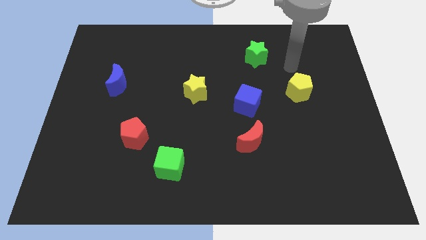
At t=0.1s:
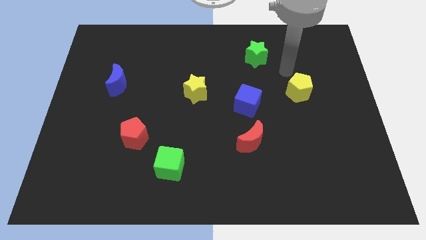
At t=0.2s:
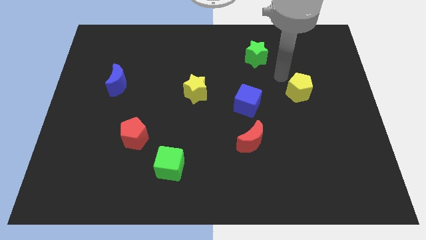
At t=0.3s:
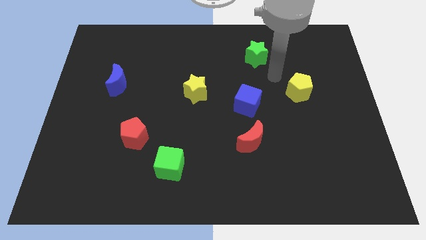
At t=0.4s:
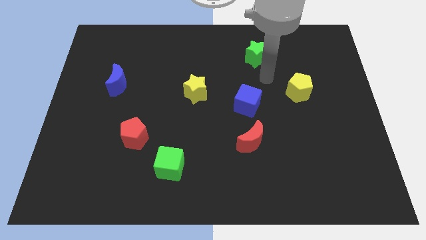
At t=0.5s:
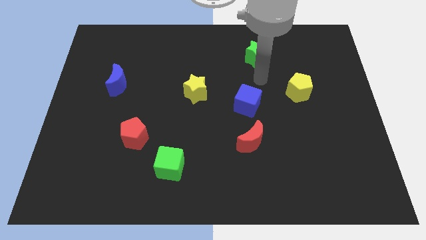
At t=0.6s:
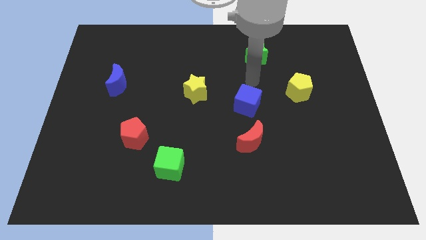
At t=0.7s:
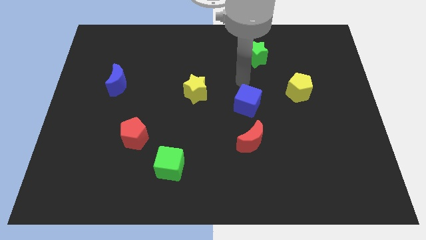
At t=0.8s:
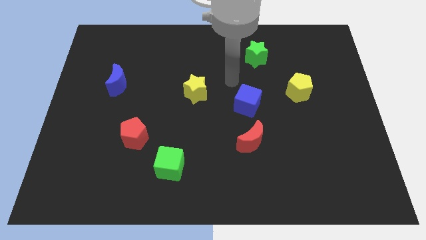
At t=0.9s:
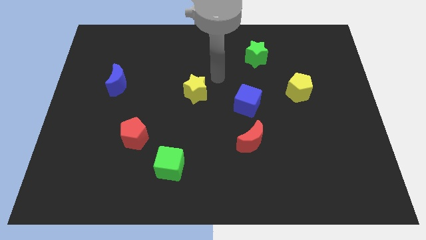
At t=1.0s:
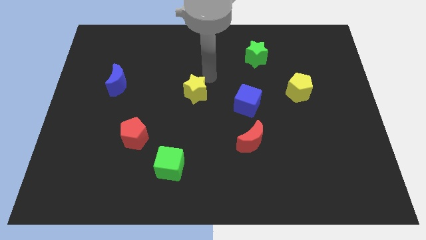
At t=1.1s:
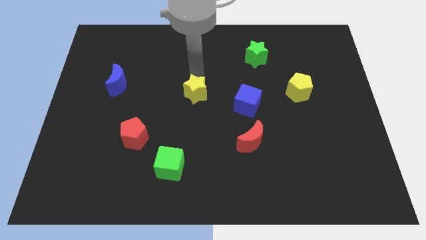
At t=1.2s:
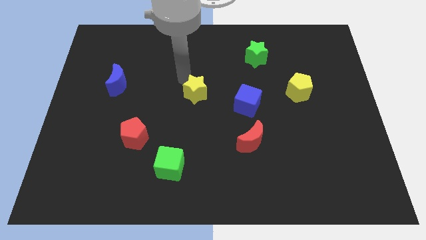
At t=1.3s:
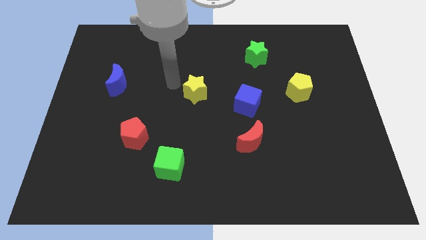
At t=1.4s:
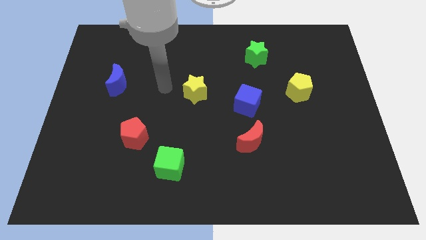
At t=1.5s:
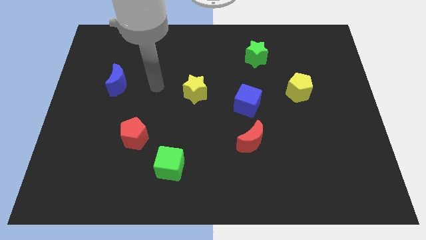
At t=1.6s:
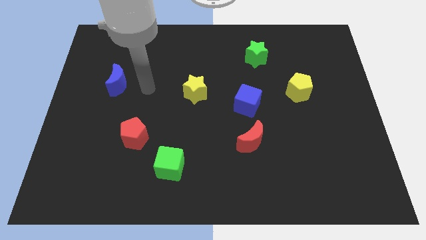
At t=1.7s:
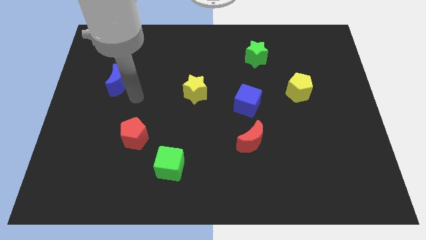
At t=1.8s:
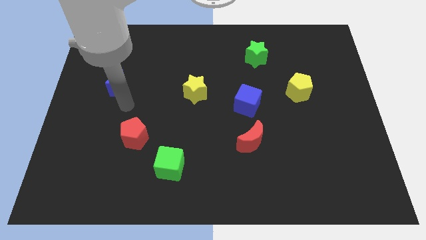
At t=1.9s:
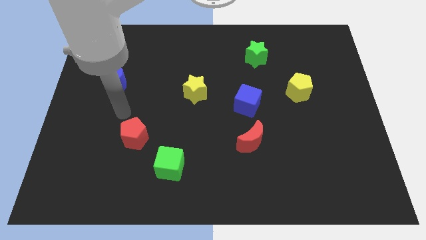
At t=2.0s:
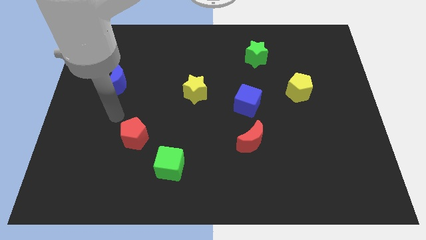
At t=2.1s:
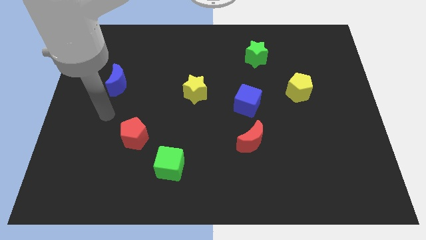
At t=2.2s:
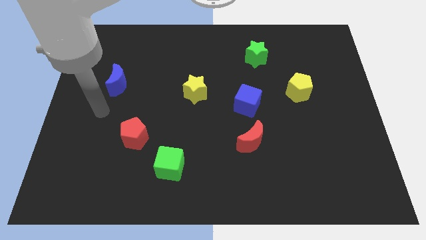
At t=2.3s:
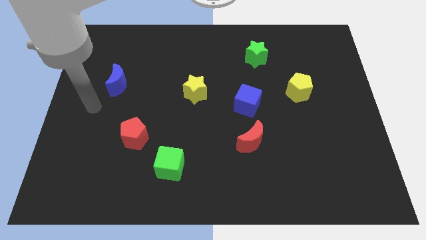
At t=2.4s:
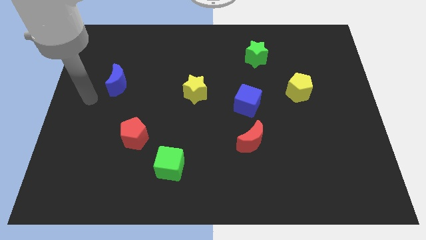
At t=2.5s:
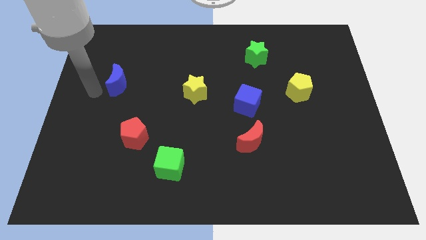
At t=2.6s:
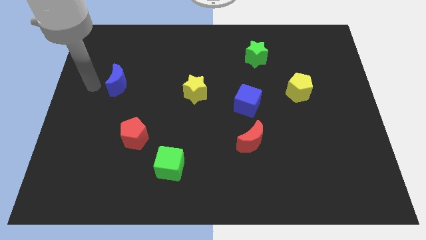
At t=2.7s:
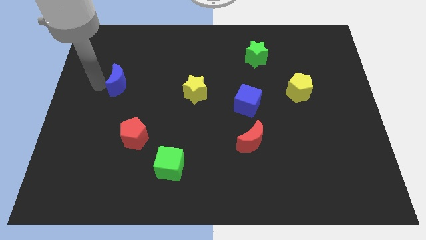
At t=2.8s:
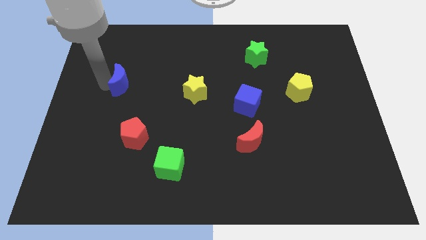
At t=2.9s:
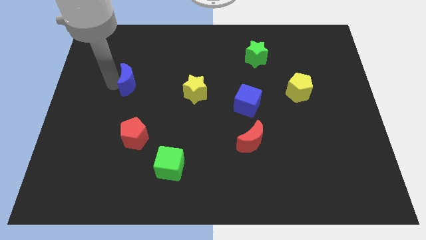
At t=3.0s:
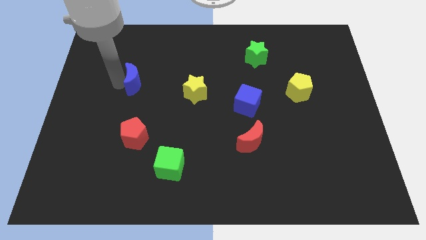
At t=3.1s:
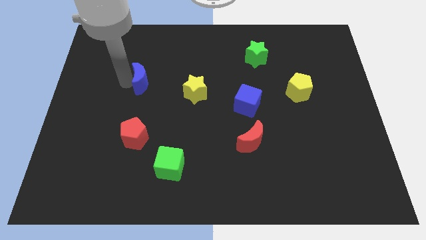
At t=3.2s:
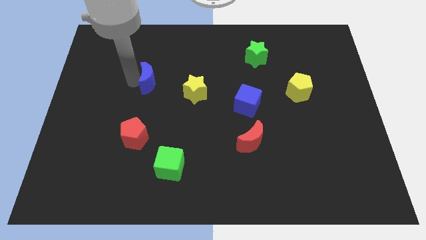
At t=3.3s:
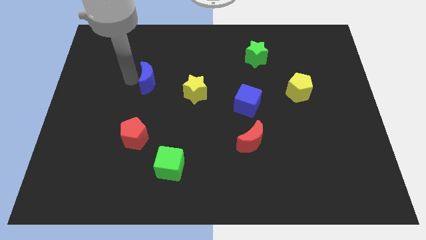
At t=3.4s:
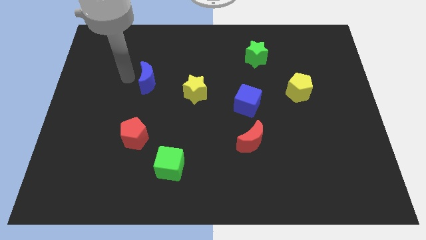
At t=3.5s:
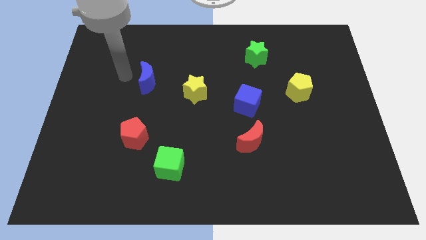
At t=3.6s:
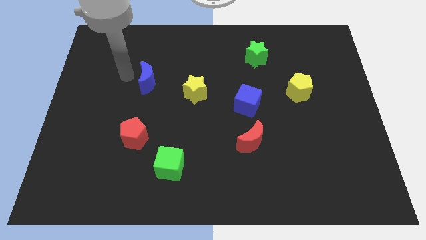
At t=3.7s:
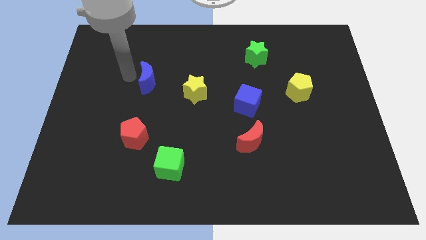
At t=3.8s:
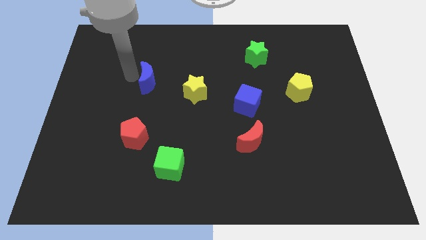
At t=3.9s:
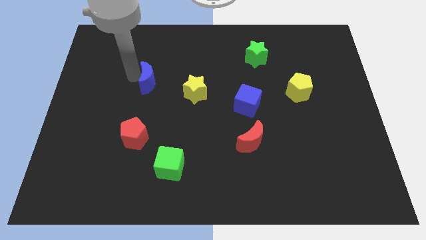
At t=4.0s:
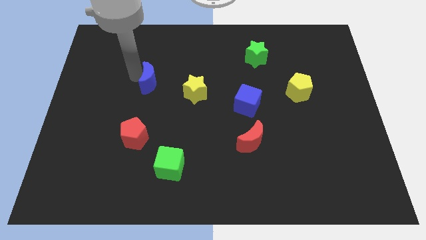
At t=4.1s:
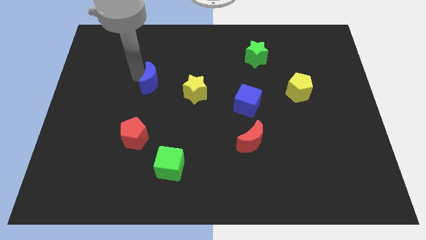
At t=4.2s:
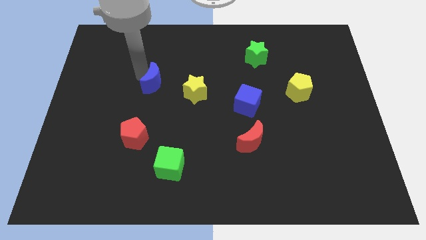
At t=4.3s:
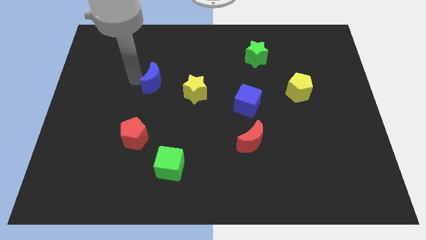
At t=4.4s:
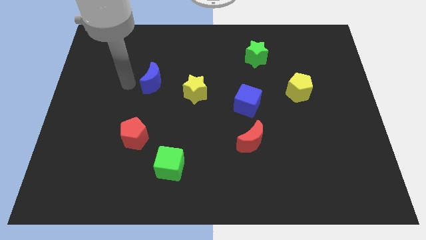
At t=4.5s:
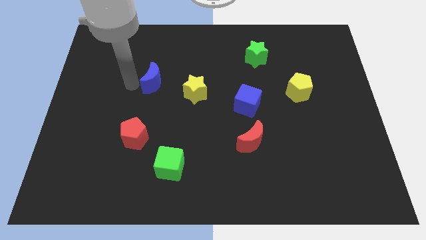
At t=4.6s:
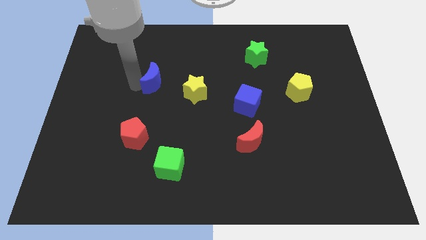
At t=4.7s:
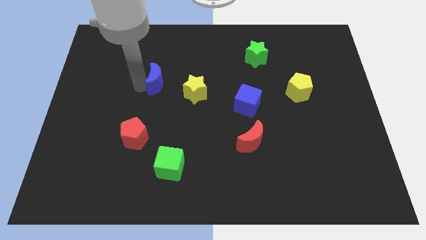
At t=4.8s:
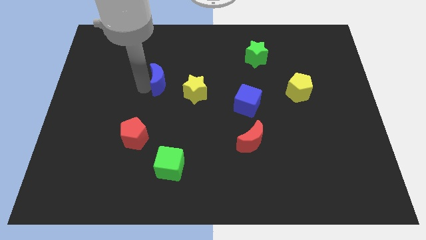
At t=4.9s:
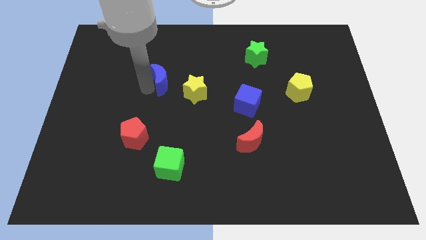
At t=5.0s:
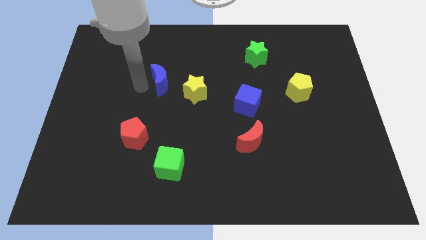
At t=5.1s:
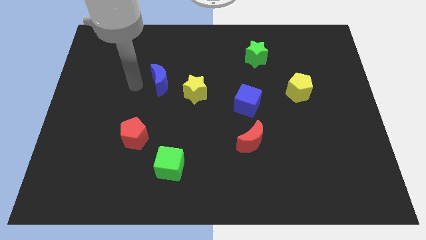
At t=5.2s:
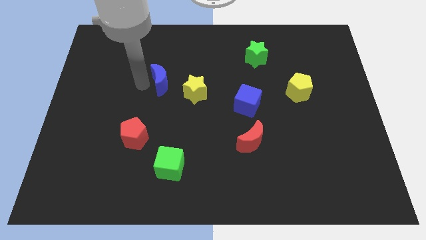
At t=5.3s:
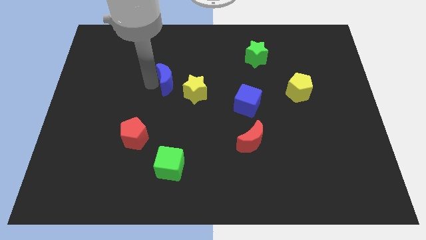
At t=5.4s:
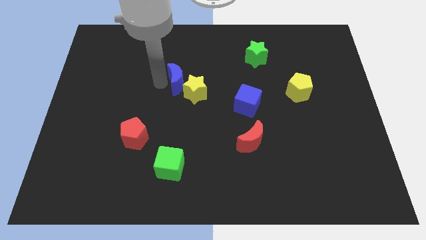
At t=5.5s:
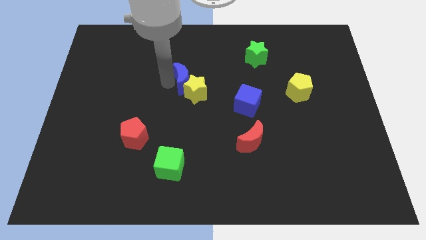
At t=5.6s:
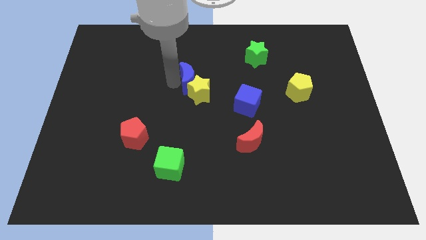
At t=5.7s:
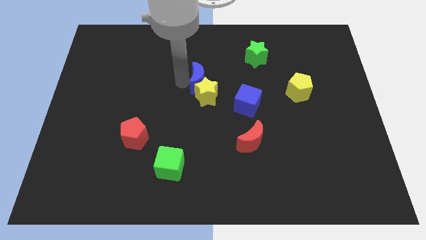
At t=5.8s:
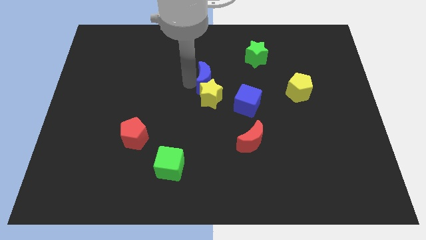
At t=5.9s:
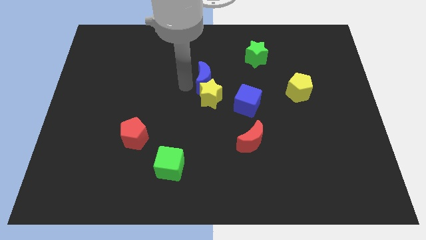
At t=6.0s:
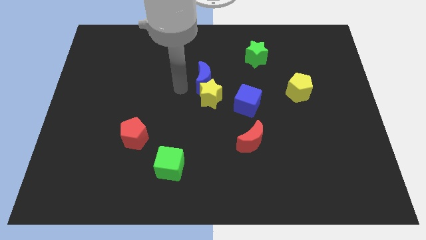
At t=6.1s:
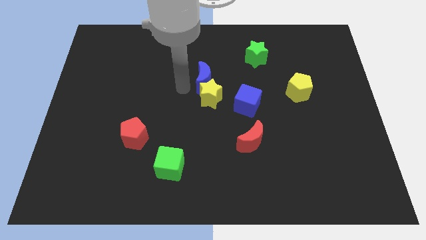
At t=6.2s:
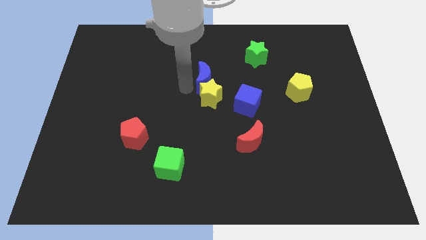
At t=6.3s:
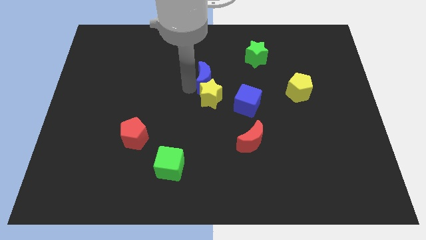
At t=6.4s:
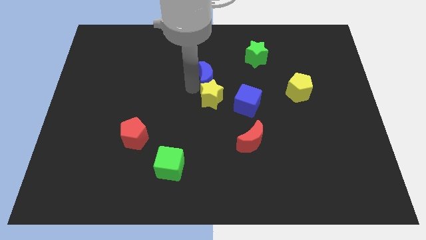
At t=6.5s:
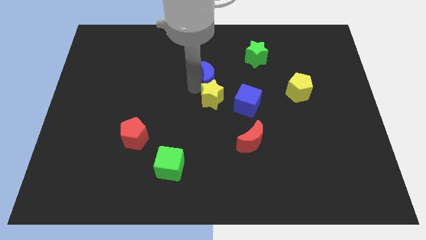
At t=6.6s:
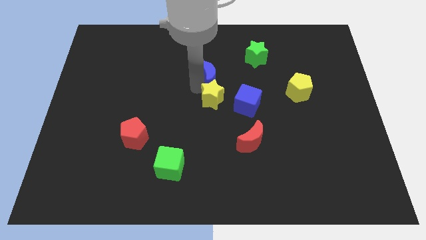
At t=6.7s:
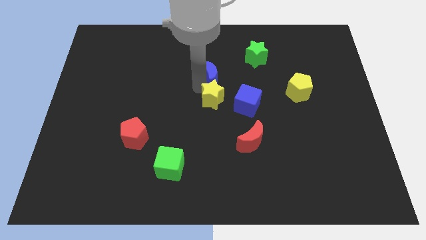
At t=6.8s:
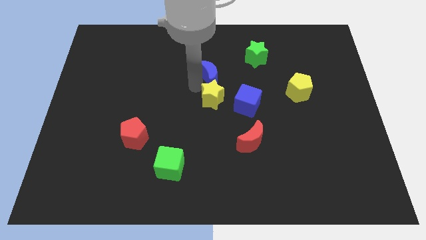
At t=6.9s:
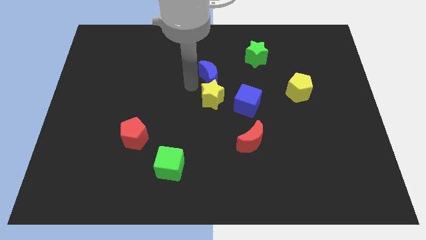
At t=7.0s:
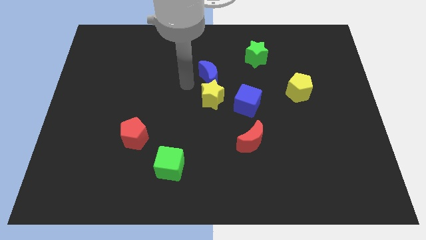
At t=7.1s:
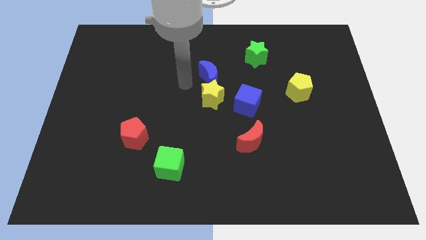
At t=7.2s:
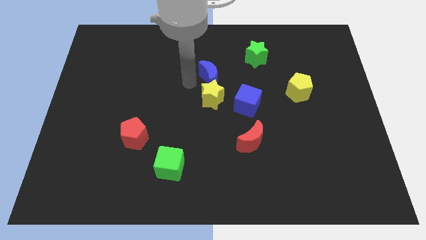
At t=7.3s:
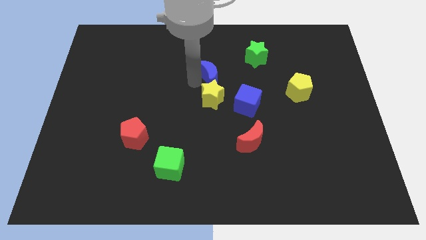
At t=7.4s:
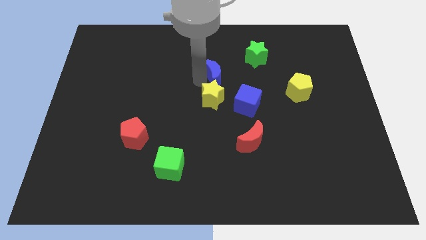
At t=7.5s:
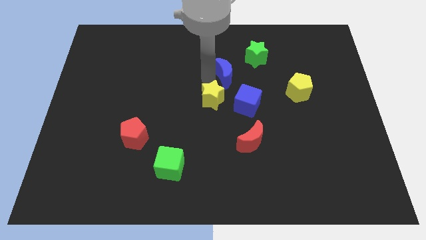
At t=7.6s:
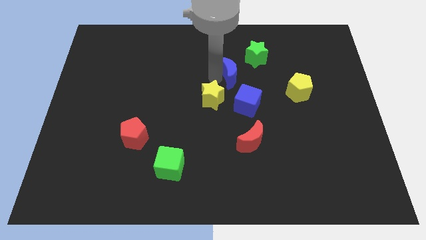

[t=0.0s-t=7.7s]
put the blue moon to the top side of the blue cube
